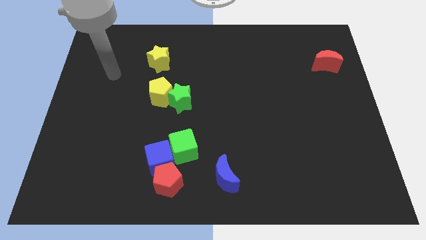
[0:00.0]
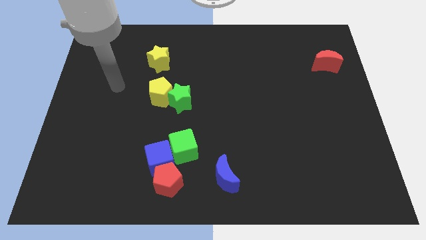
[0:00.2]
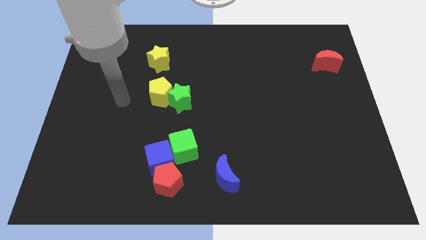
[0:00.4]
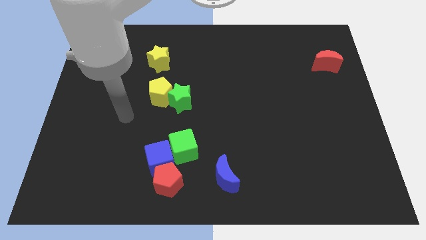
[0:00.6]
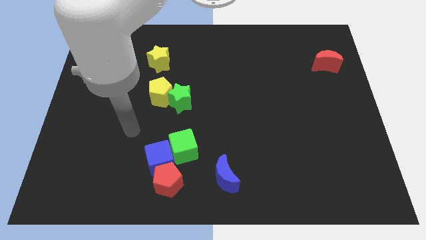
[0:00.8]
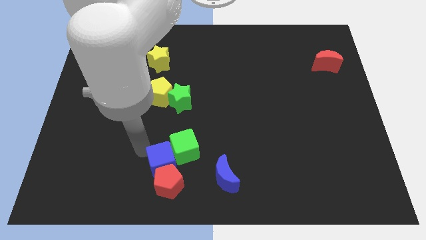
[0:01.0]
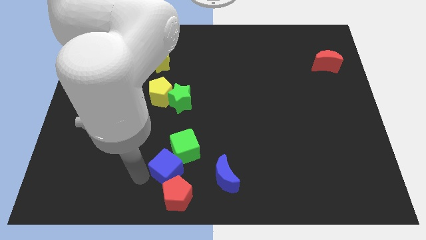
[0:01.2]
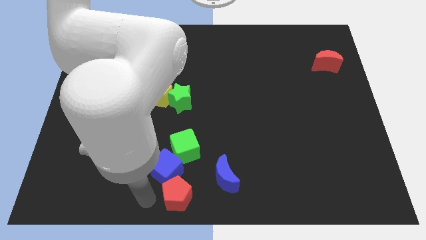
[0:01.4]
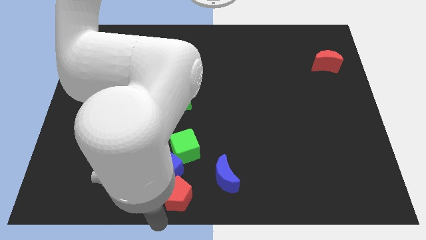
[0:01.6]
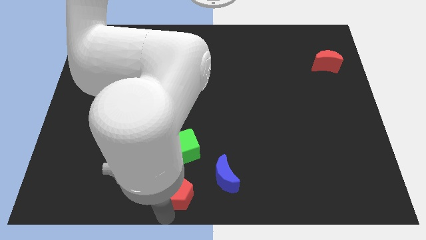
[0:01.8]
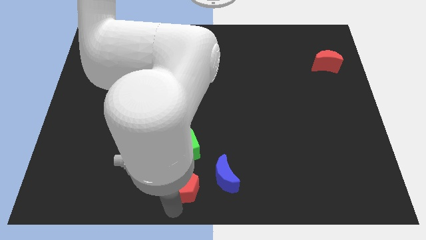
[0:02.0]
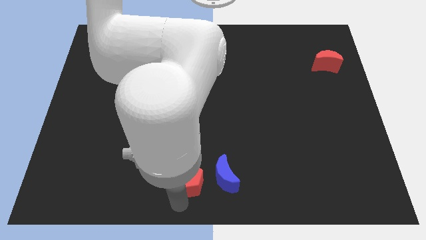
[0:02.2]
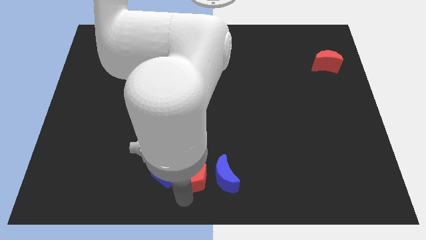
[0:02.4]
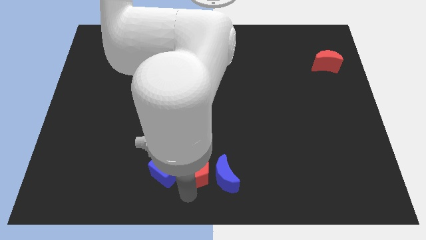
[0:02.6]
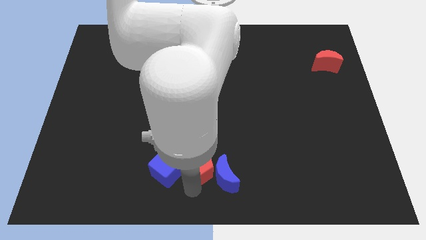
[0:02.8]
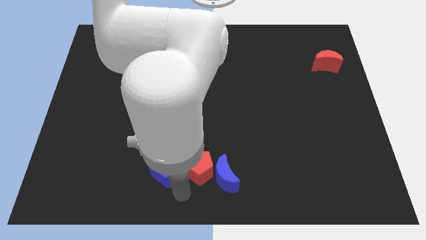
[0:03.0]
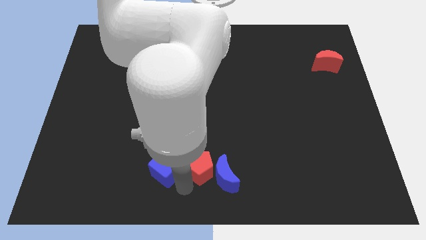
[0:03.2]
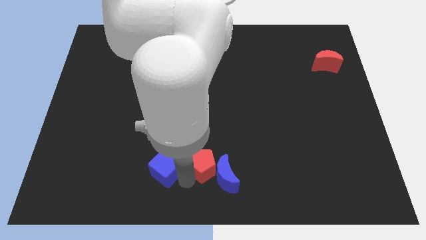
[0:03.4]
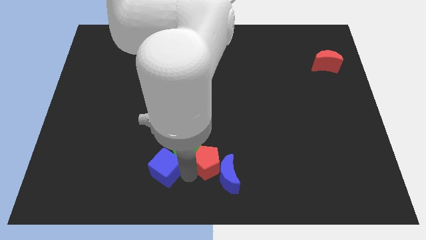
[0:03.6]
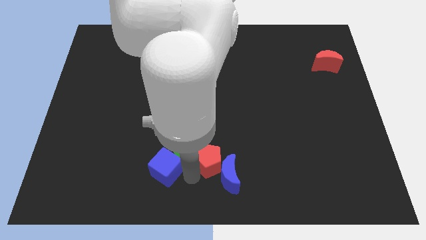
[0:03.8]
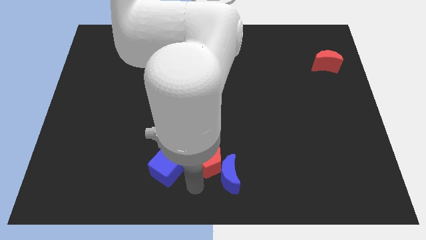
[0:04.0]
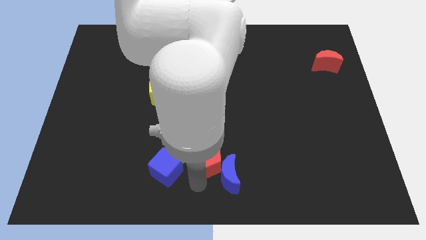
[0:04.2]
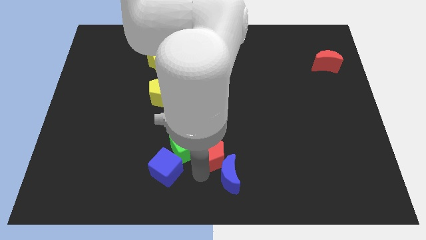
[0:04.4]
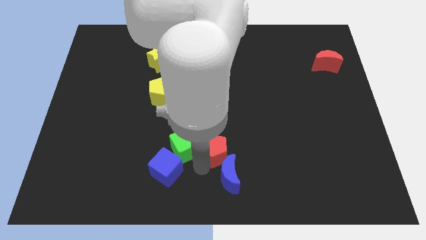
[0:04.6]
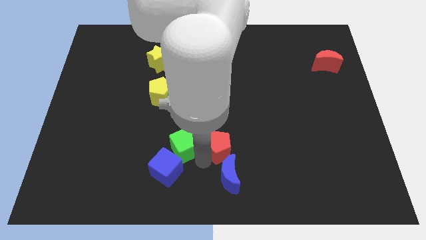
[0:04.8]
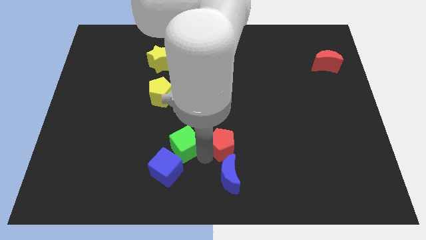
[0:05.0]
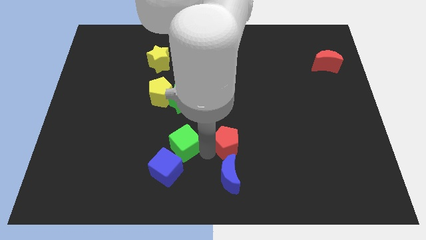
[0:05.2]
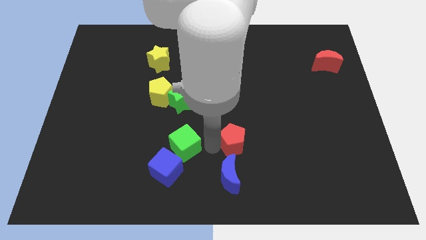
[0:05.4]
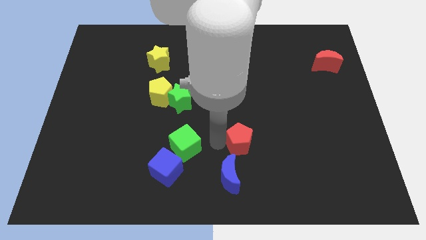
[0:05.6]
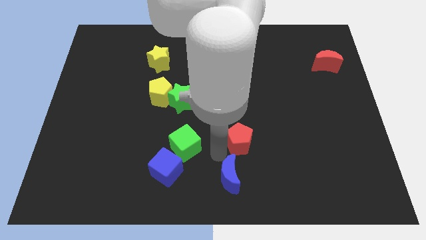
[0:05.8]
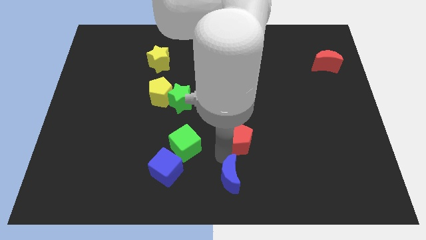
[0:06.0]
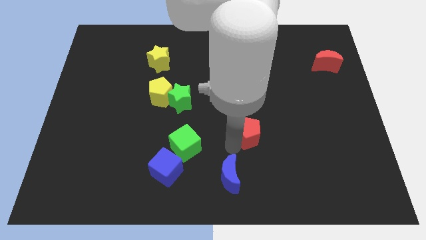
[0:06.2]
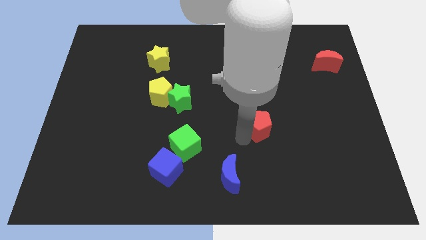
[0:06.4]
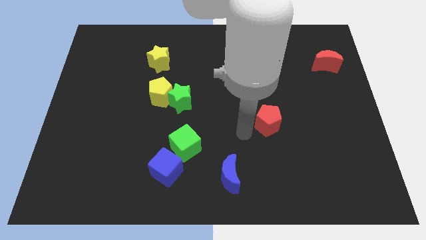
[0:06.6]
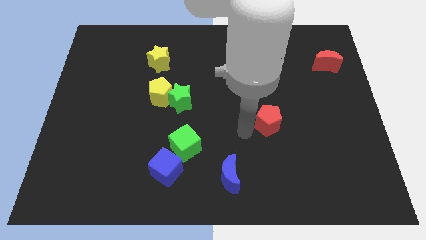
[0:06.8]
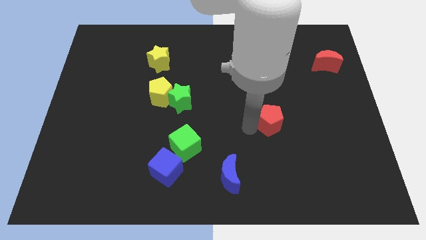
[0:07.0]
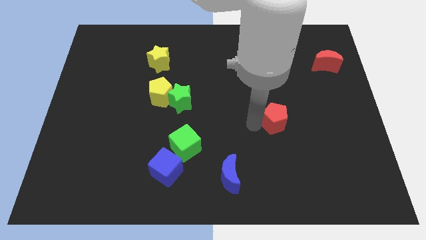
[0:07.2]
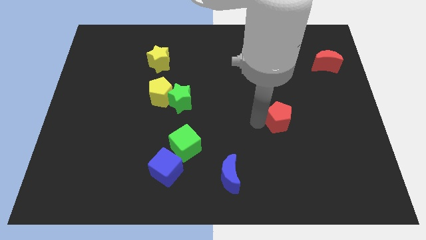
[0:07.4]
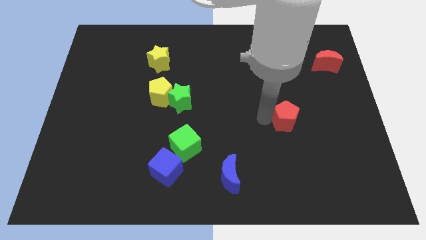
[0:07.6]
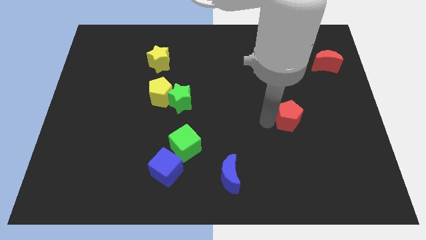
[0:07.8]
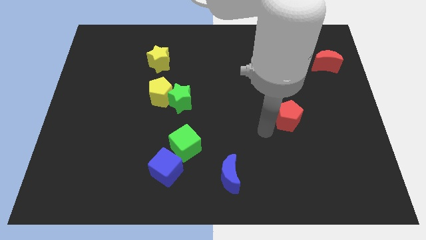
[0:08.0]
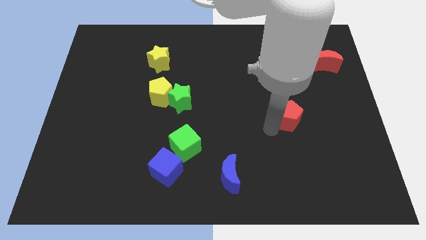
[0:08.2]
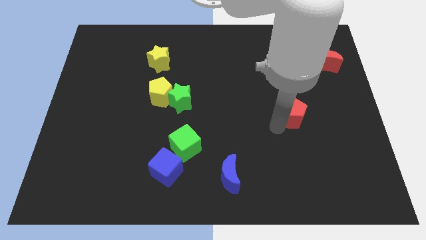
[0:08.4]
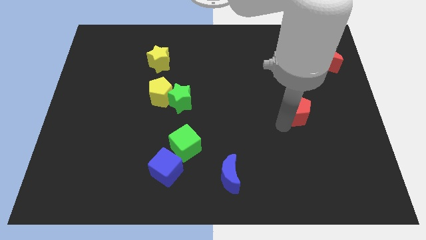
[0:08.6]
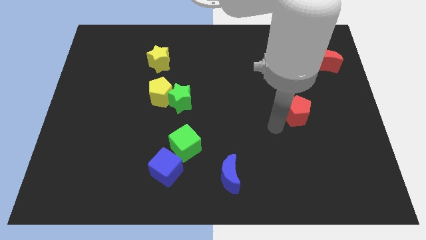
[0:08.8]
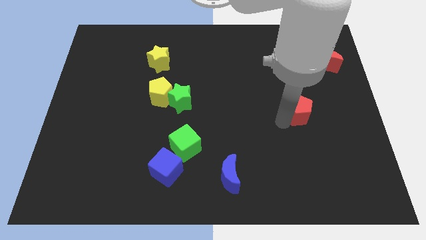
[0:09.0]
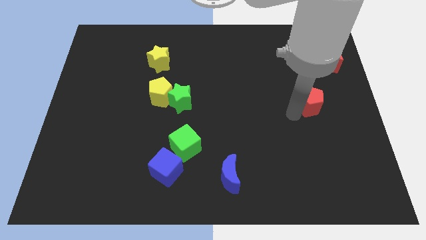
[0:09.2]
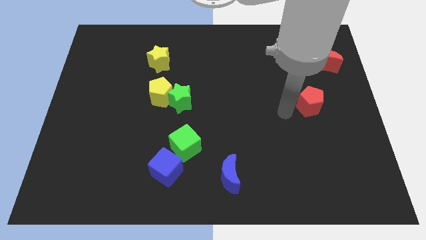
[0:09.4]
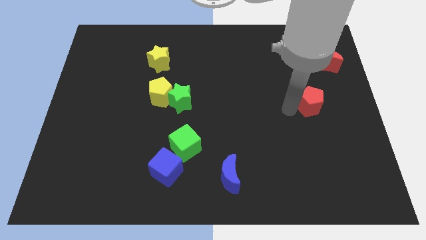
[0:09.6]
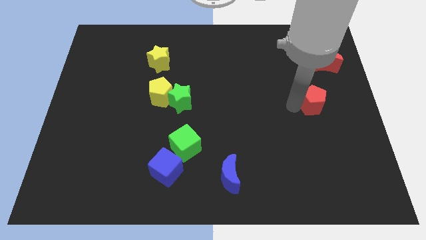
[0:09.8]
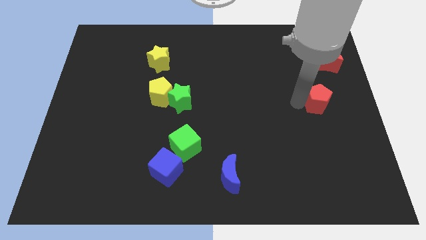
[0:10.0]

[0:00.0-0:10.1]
move the red pentagon to the bottom of the red moon
